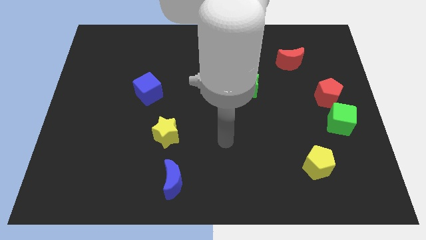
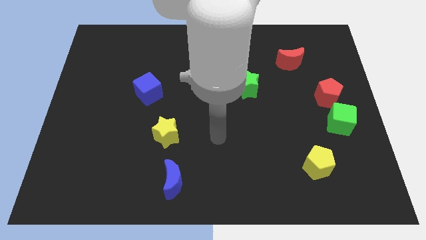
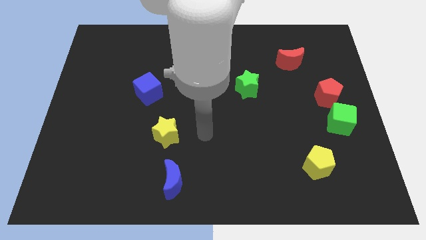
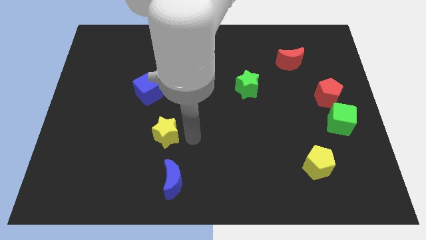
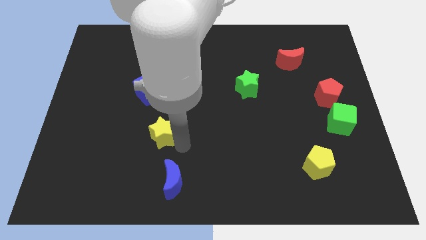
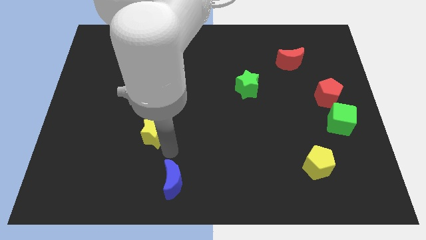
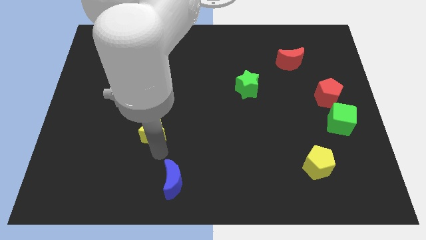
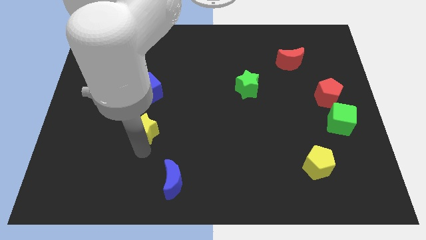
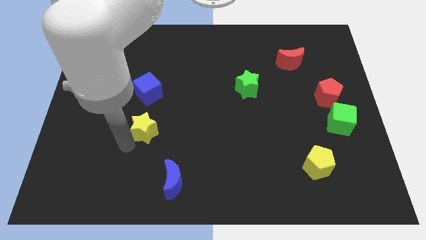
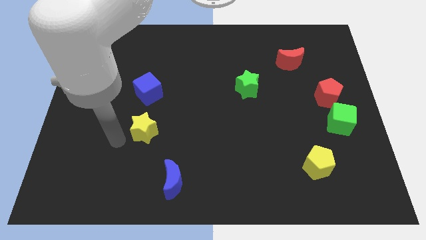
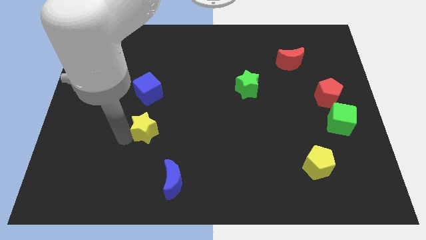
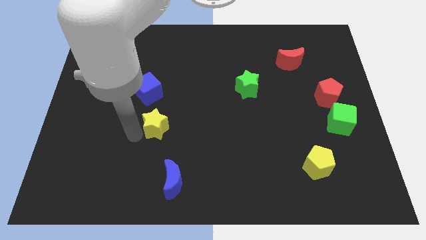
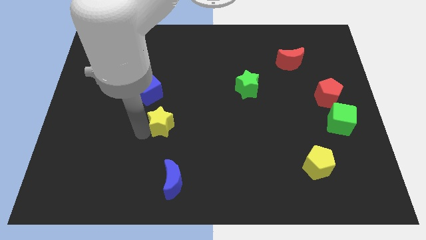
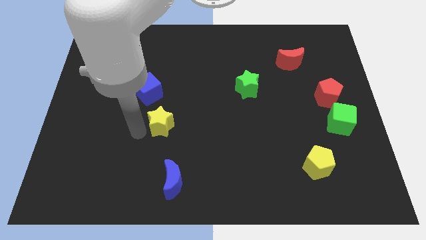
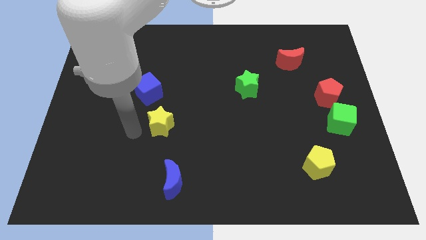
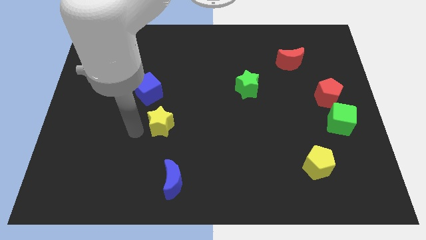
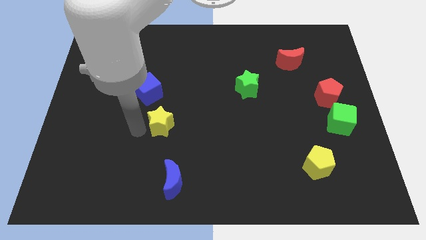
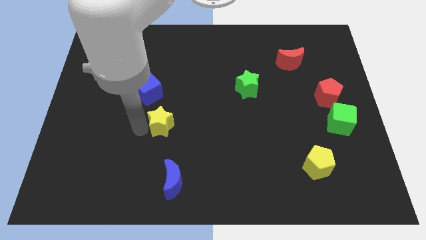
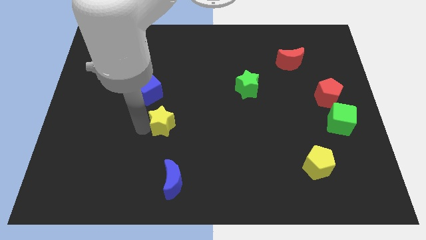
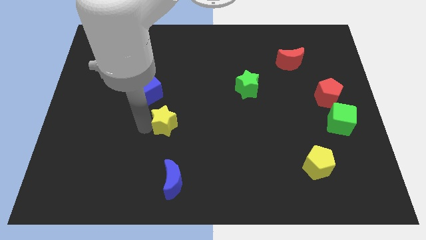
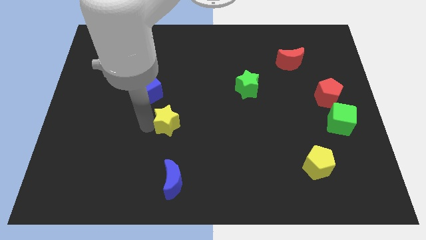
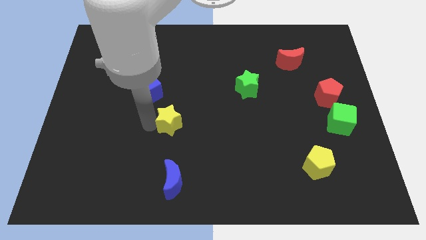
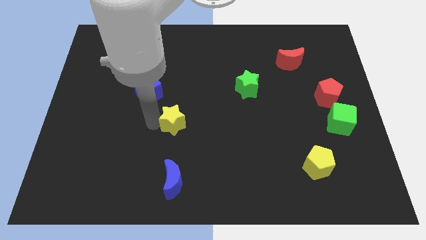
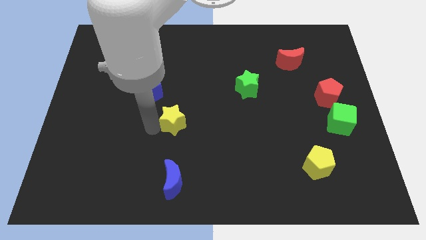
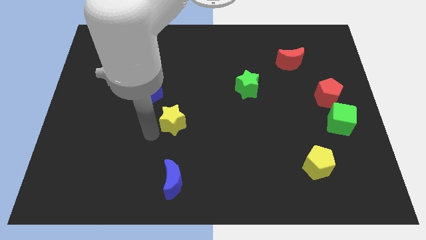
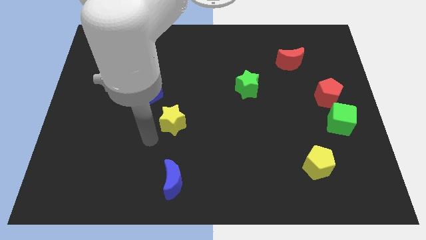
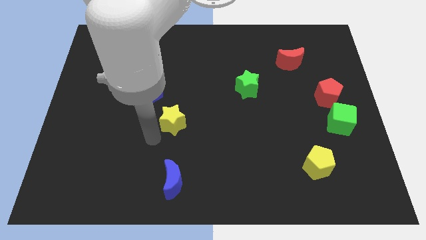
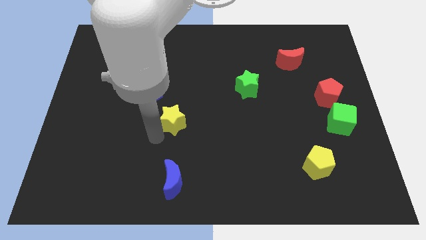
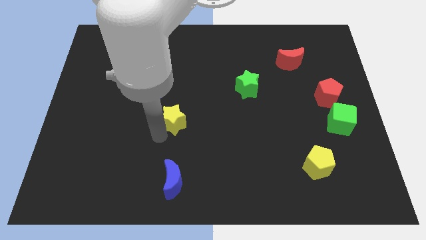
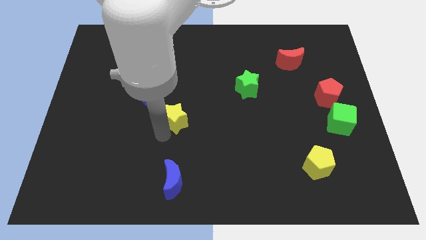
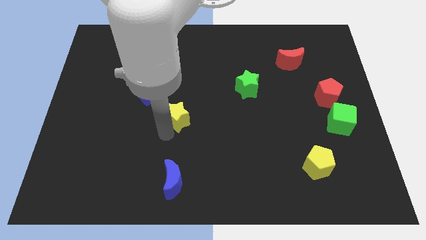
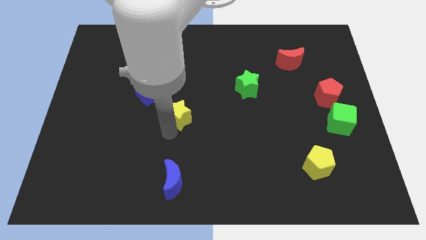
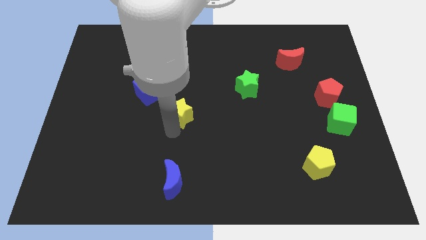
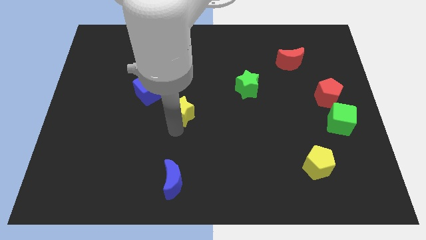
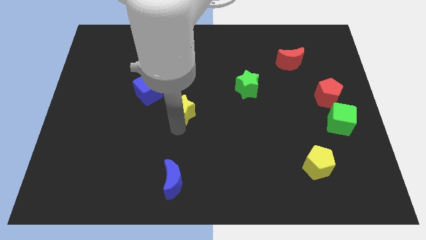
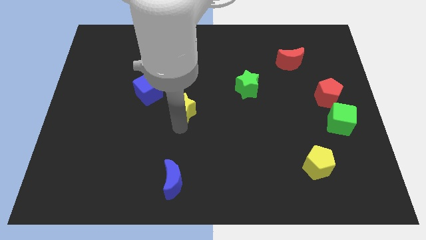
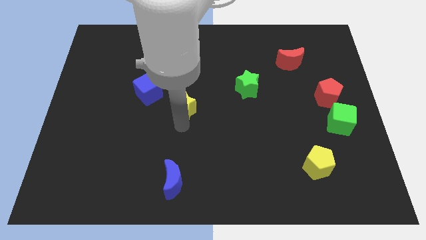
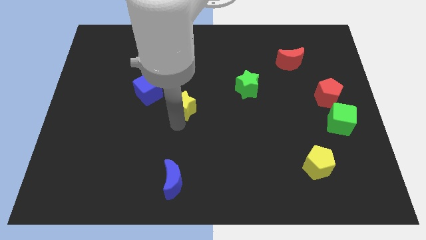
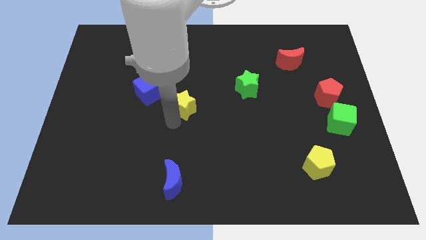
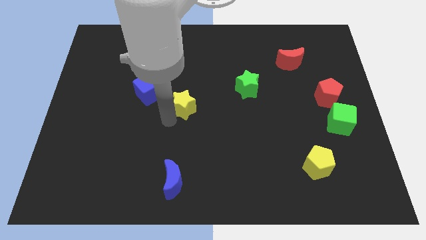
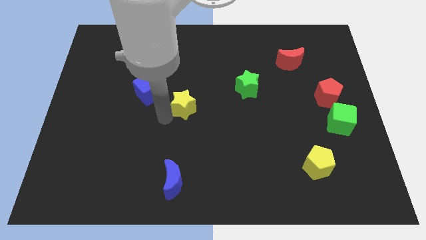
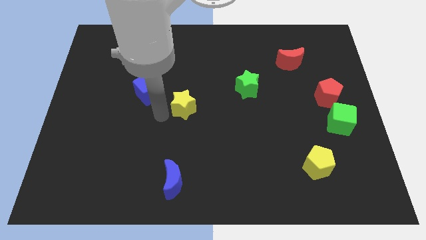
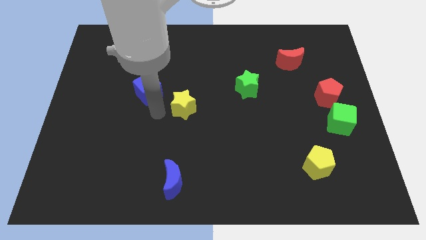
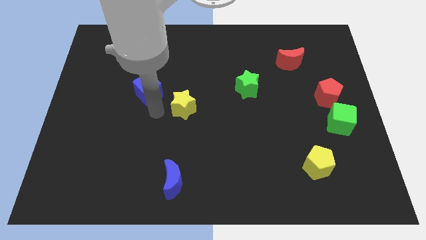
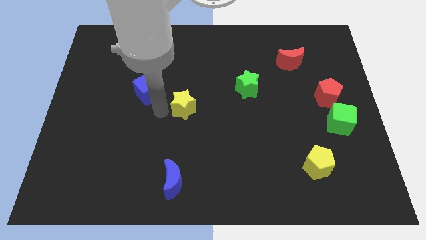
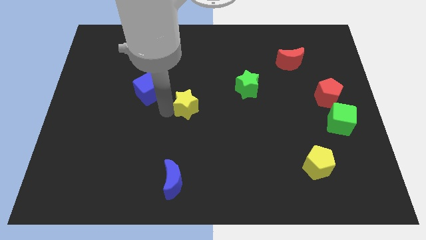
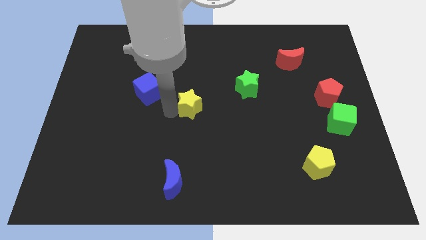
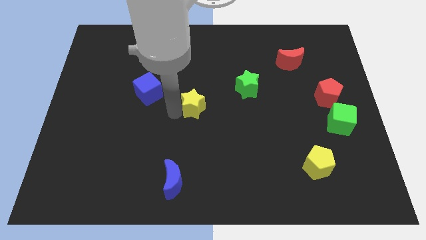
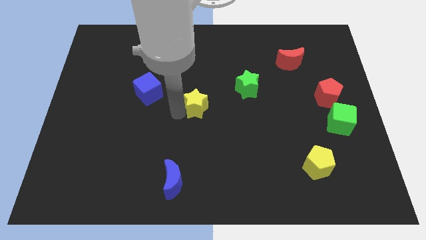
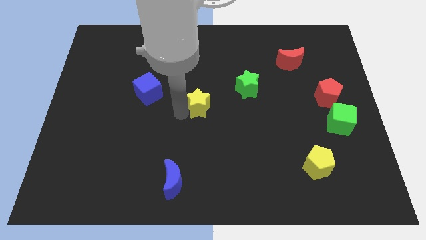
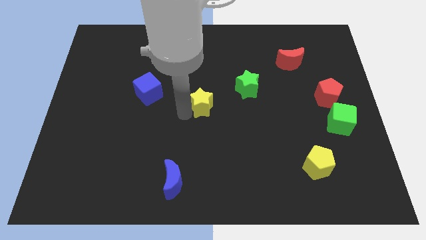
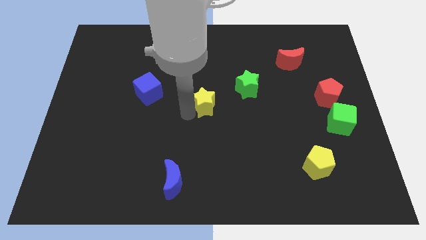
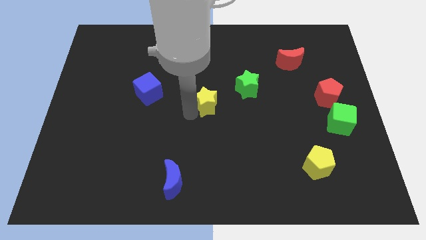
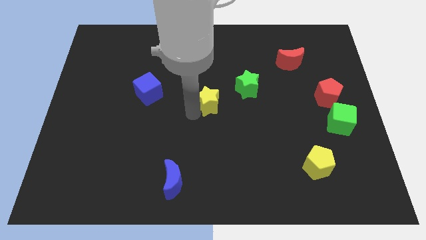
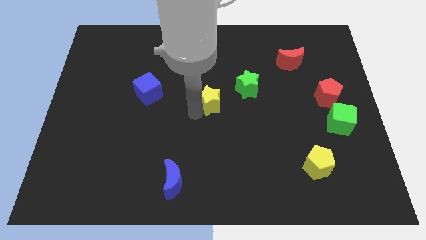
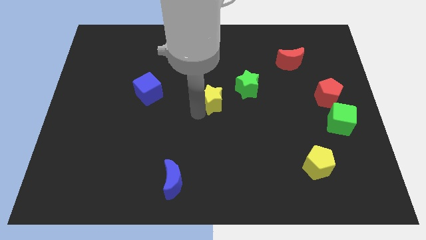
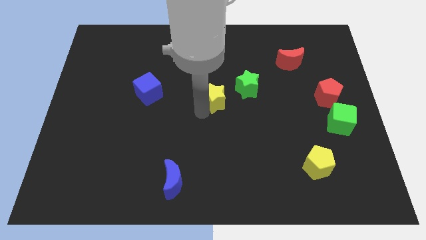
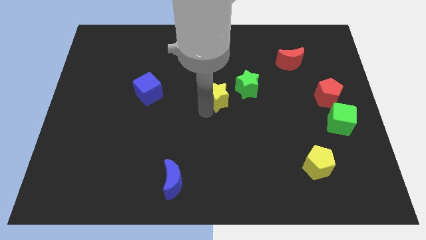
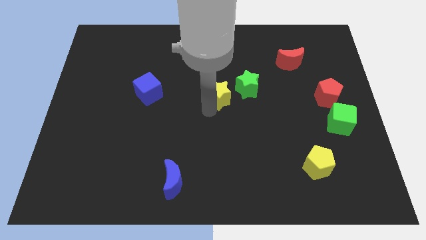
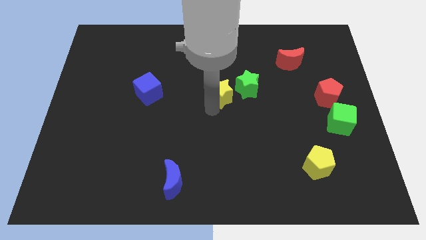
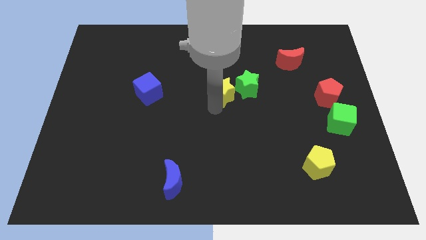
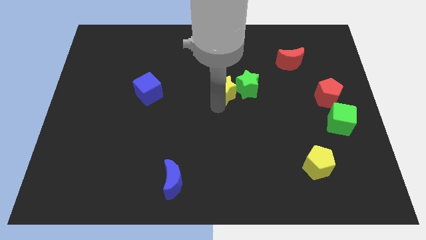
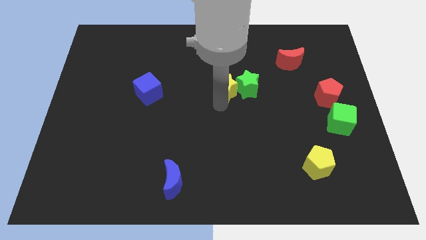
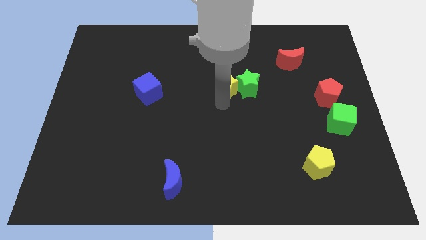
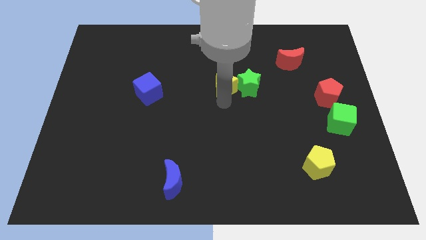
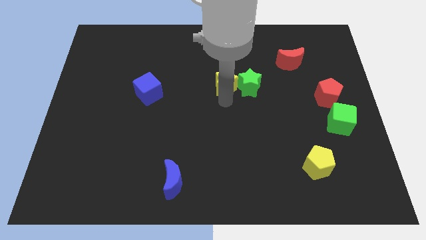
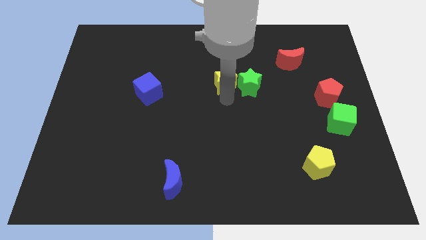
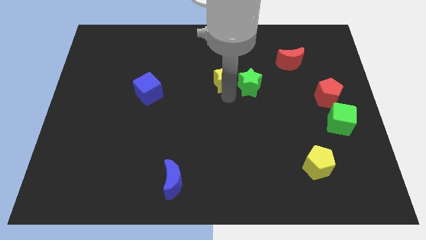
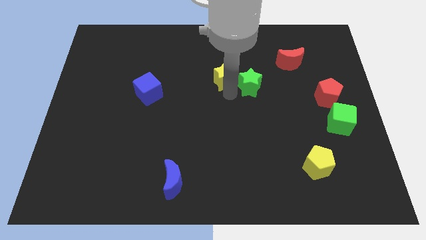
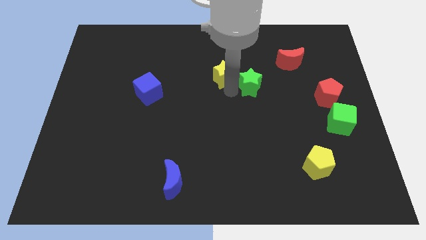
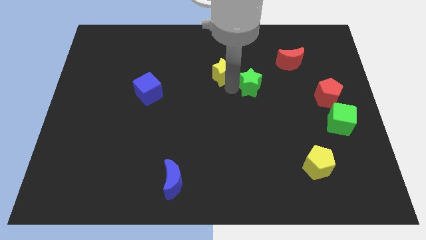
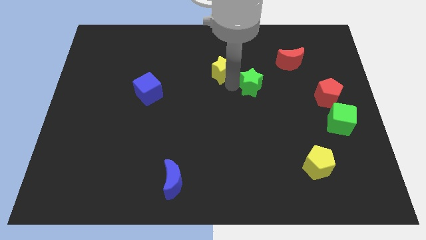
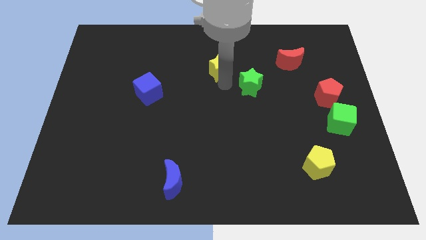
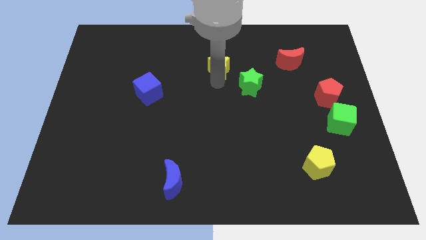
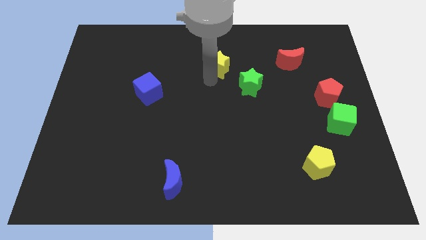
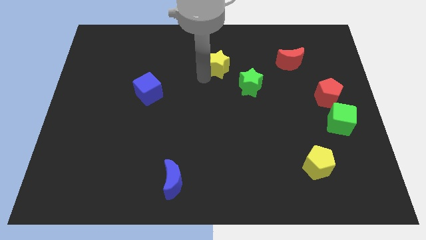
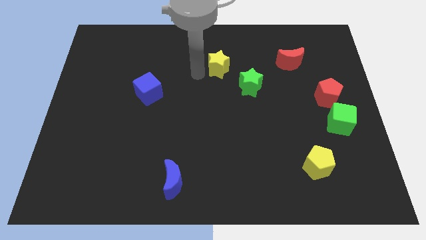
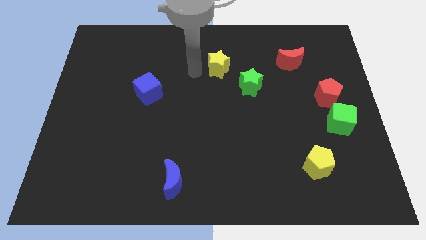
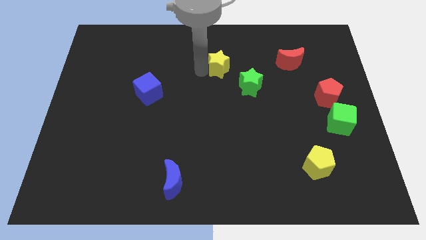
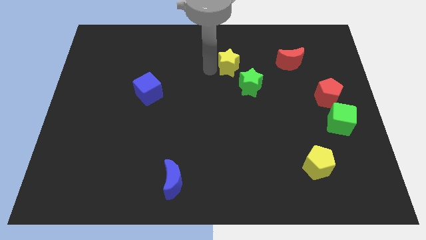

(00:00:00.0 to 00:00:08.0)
push the yellow star to the left side of the red moon
